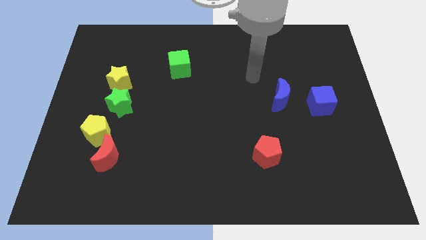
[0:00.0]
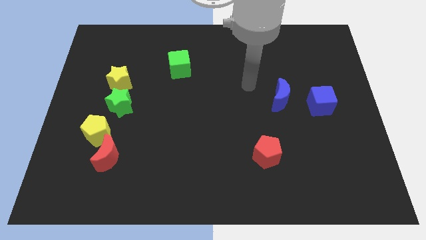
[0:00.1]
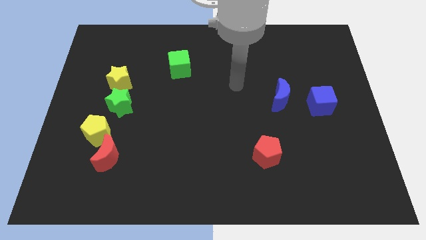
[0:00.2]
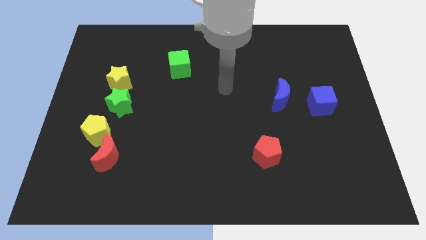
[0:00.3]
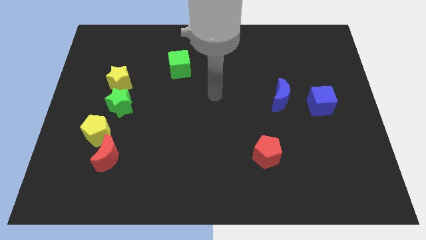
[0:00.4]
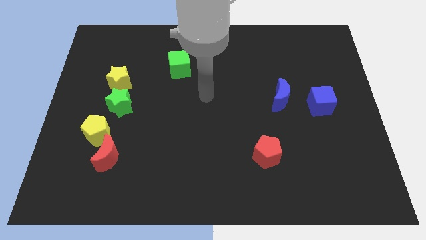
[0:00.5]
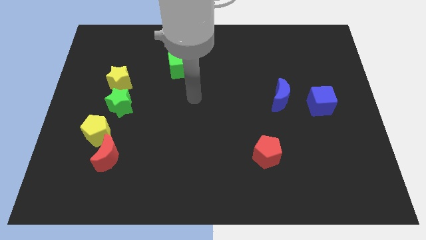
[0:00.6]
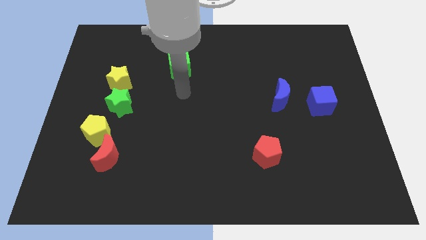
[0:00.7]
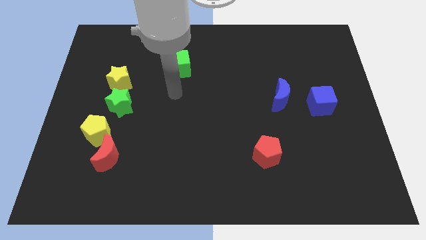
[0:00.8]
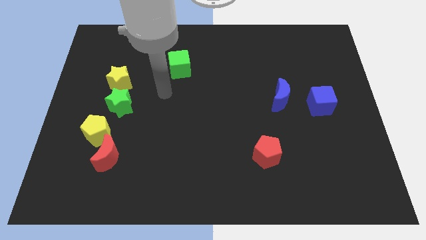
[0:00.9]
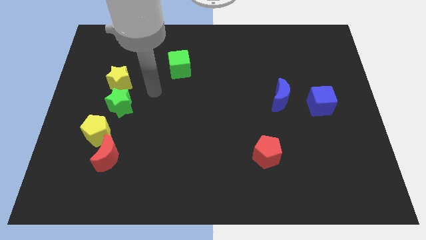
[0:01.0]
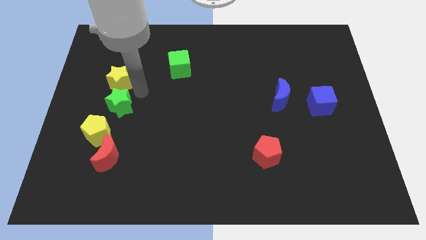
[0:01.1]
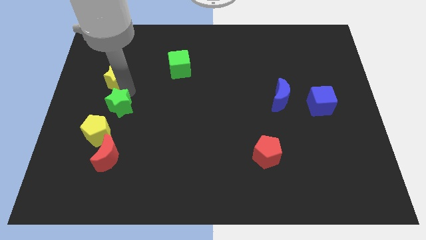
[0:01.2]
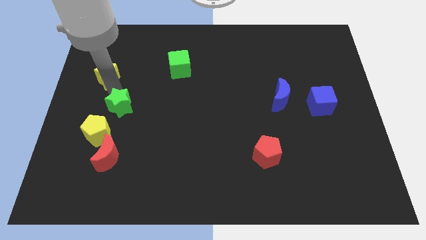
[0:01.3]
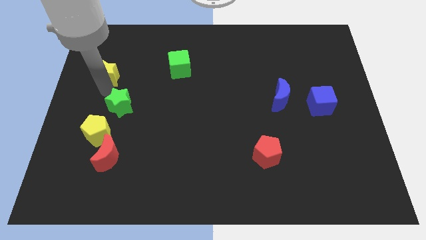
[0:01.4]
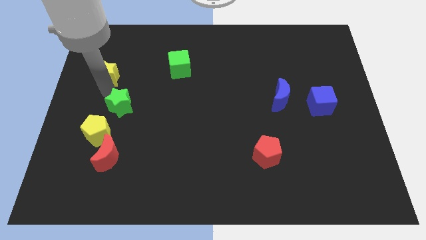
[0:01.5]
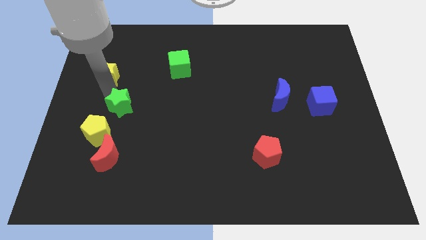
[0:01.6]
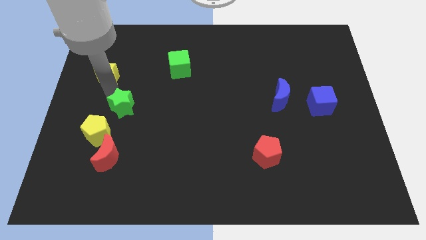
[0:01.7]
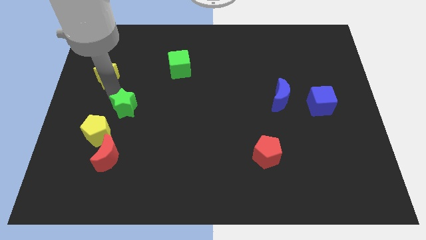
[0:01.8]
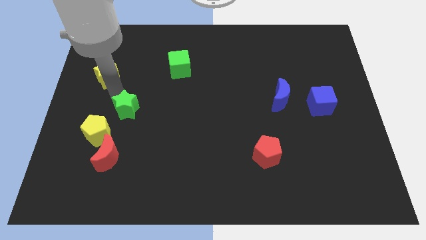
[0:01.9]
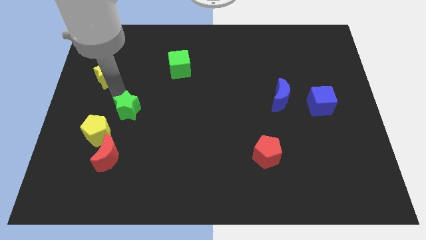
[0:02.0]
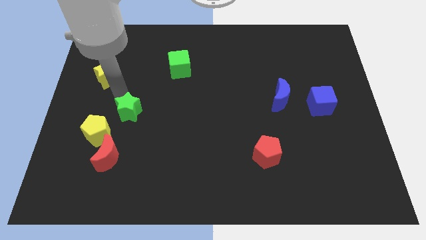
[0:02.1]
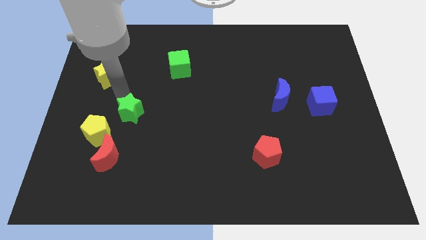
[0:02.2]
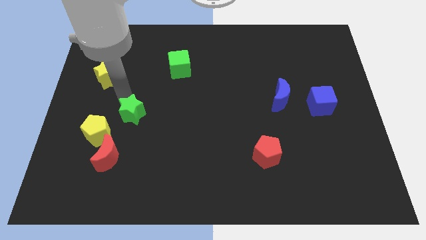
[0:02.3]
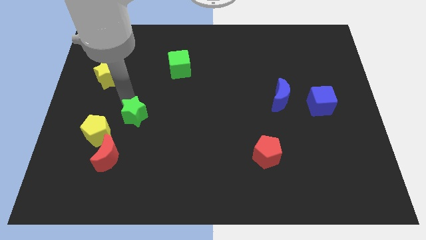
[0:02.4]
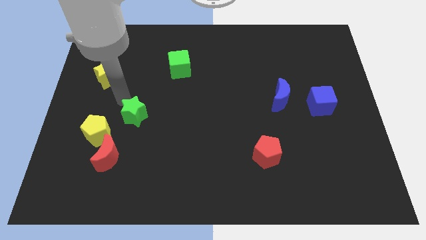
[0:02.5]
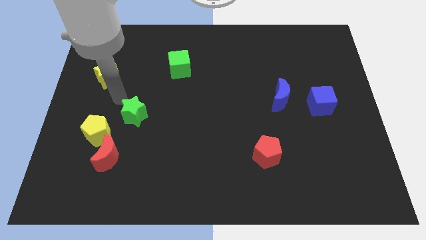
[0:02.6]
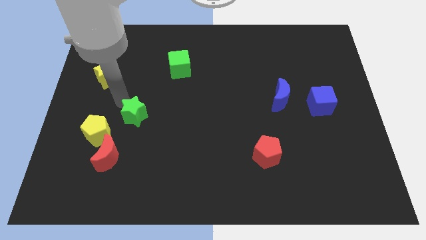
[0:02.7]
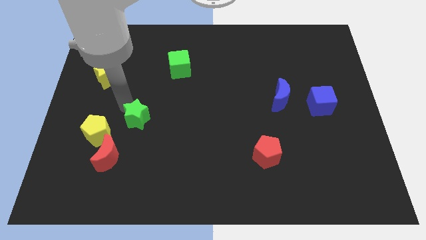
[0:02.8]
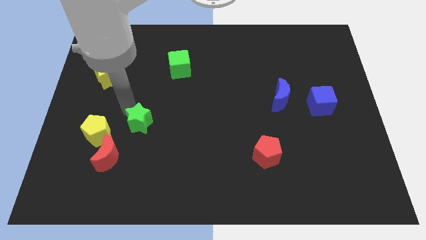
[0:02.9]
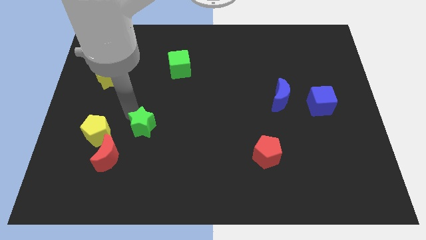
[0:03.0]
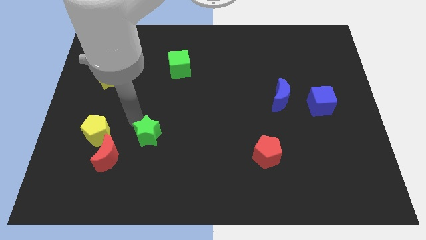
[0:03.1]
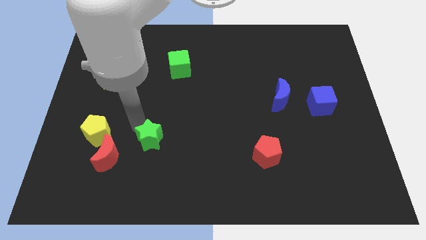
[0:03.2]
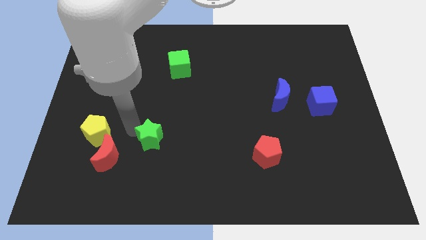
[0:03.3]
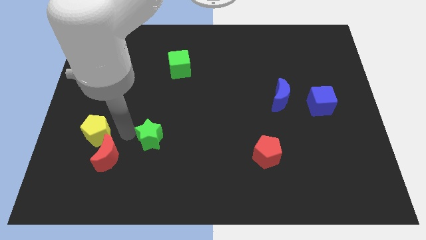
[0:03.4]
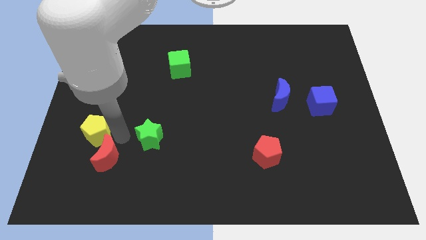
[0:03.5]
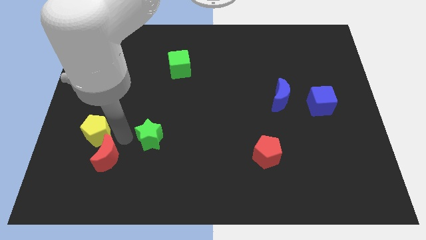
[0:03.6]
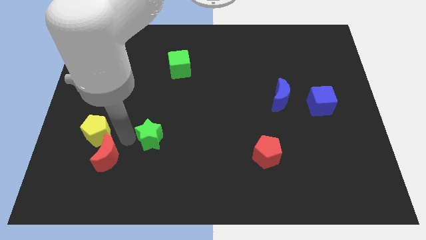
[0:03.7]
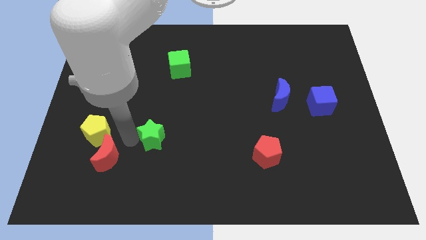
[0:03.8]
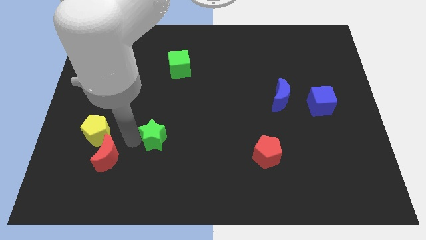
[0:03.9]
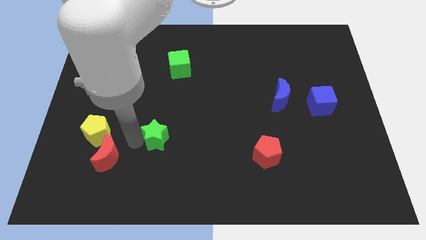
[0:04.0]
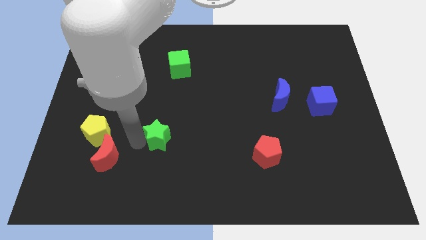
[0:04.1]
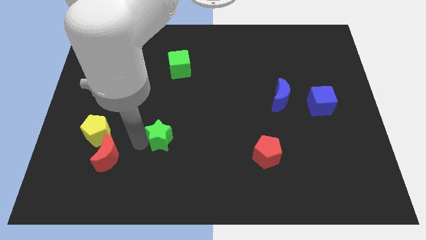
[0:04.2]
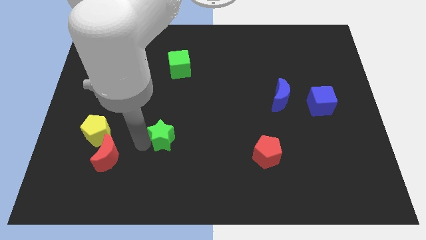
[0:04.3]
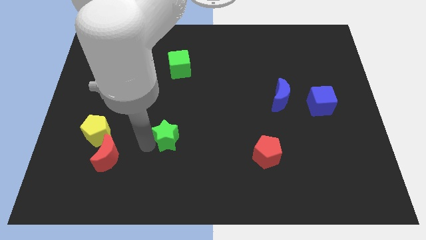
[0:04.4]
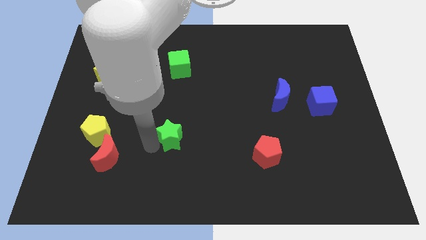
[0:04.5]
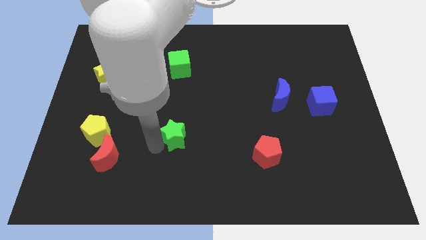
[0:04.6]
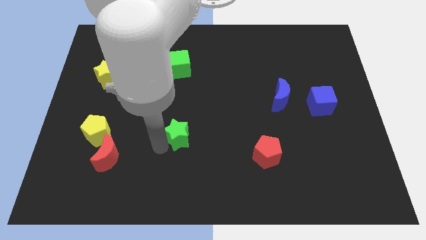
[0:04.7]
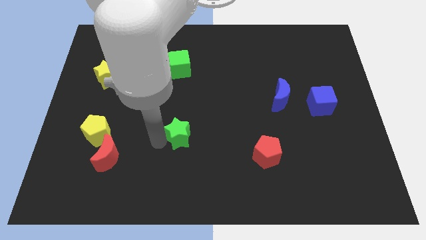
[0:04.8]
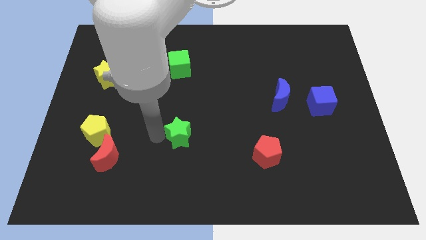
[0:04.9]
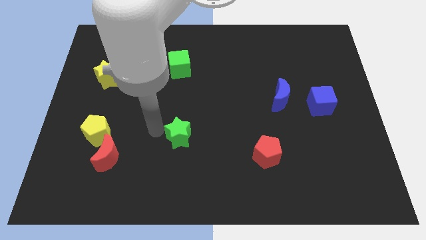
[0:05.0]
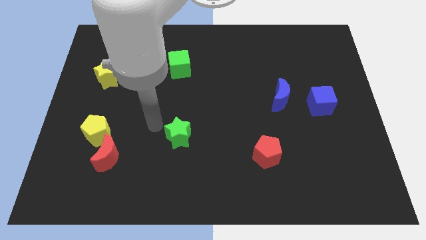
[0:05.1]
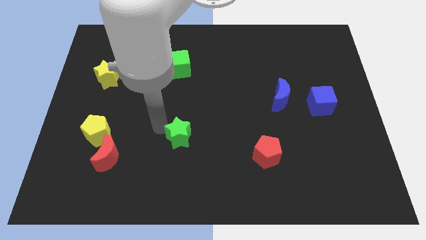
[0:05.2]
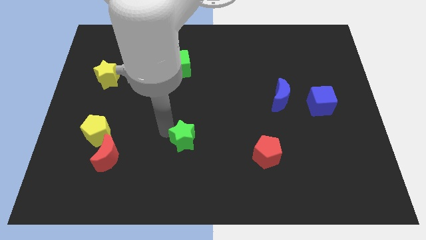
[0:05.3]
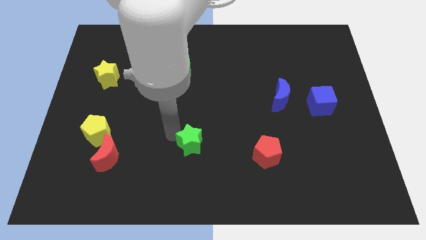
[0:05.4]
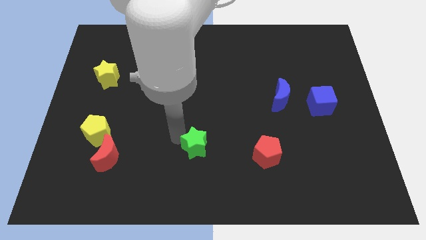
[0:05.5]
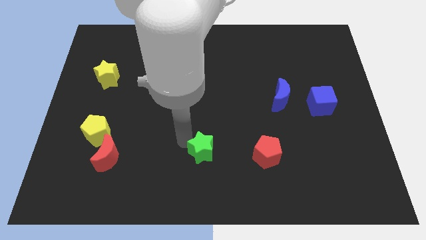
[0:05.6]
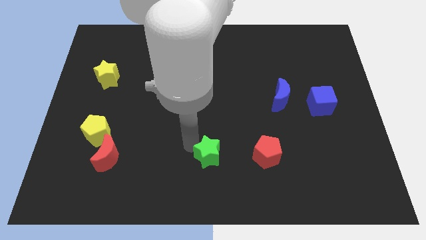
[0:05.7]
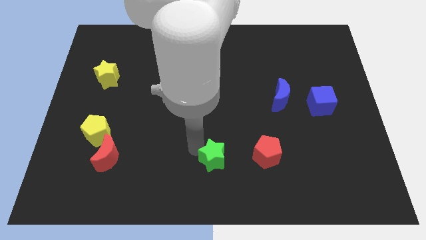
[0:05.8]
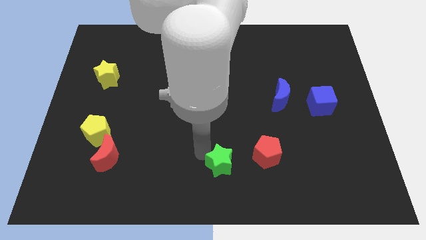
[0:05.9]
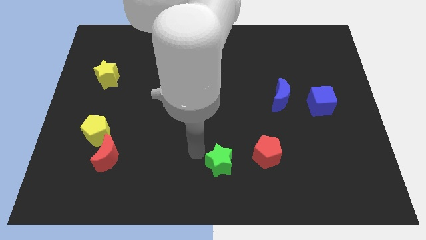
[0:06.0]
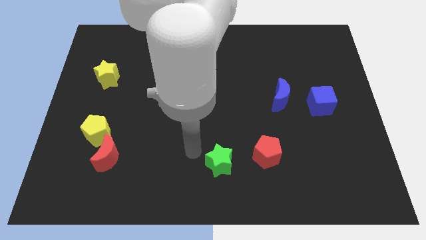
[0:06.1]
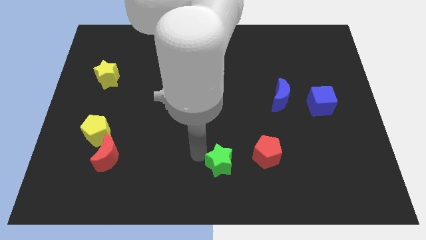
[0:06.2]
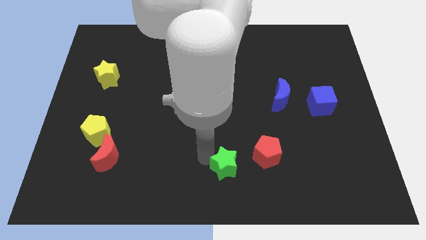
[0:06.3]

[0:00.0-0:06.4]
move the green star to the bottom left side of the red pentagon
